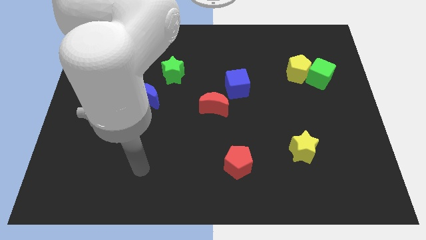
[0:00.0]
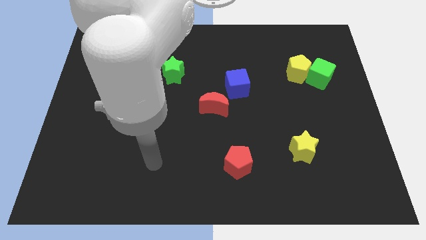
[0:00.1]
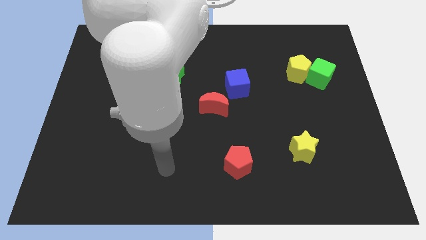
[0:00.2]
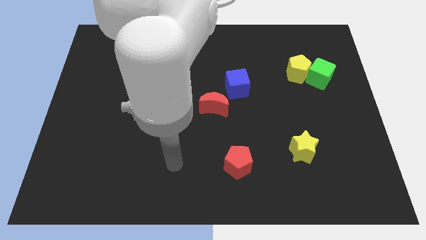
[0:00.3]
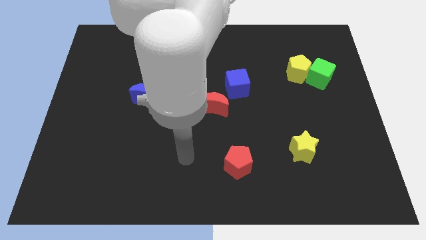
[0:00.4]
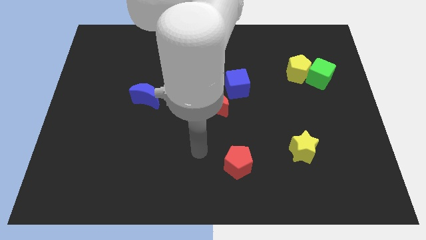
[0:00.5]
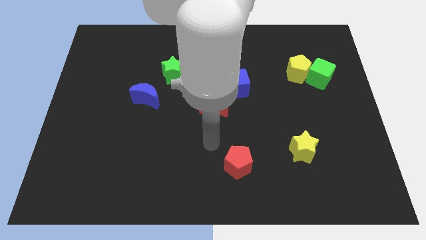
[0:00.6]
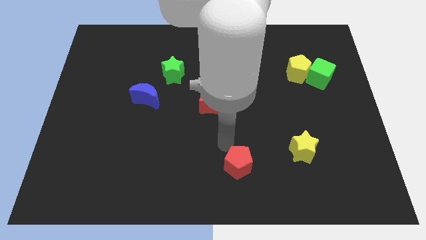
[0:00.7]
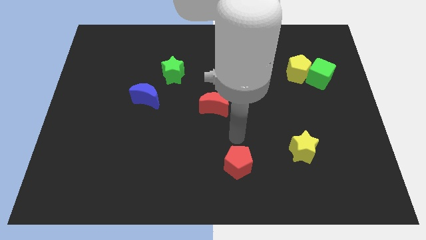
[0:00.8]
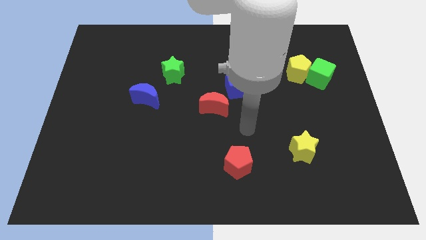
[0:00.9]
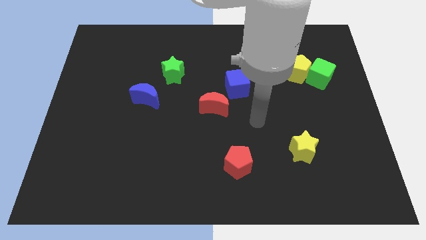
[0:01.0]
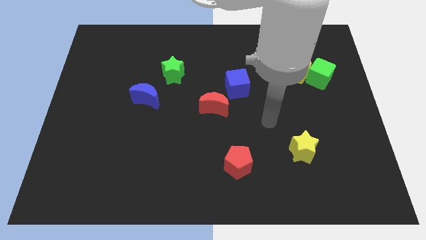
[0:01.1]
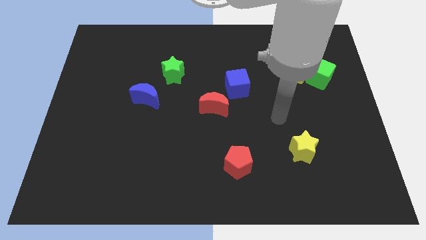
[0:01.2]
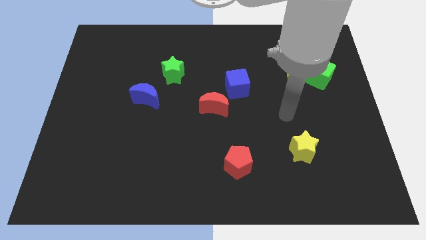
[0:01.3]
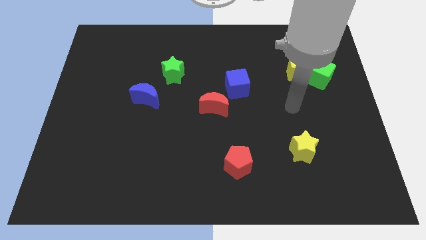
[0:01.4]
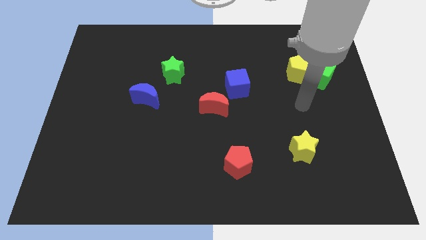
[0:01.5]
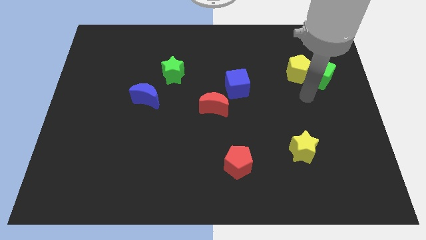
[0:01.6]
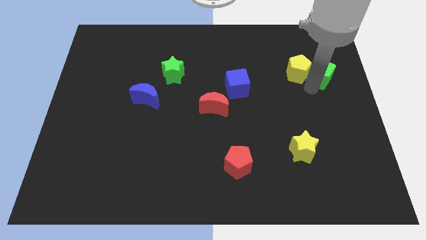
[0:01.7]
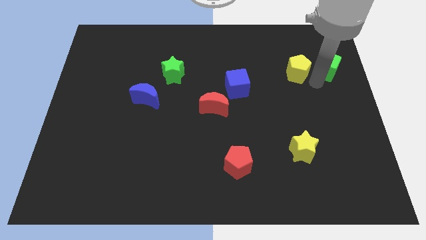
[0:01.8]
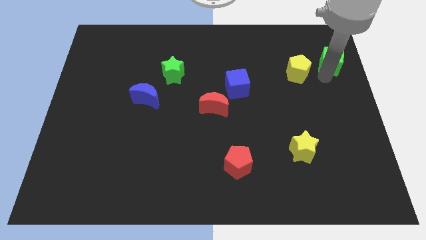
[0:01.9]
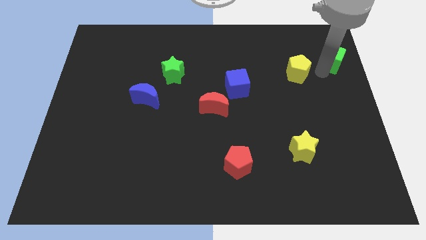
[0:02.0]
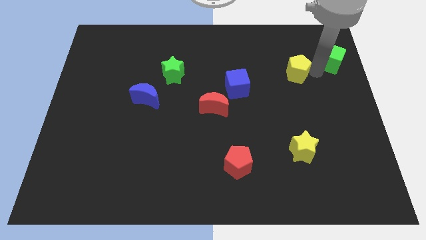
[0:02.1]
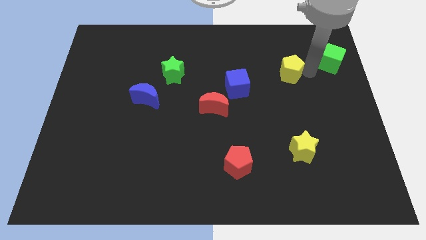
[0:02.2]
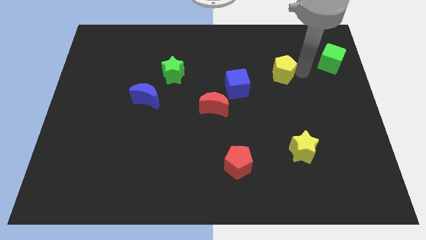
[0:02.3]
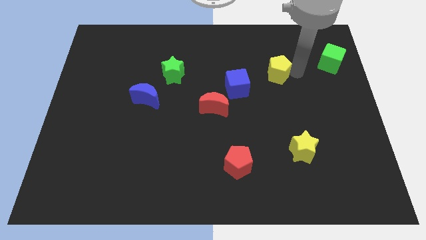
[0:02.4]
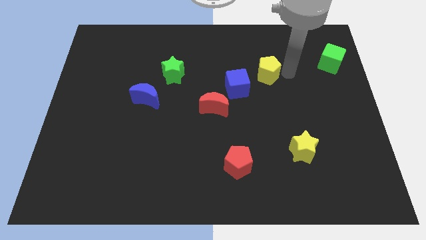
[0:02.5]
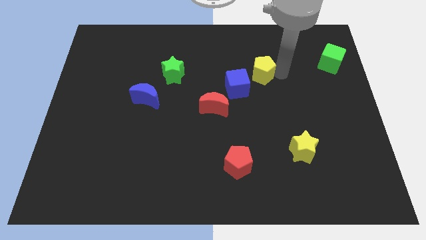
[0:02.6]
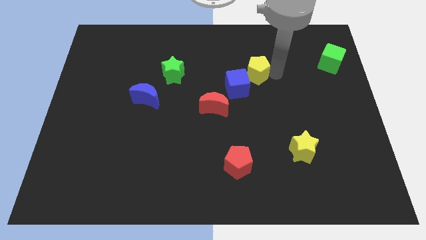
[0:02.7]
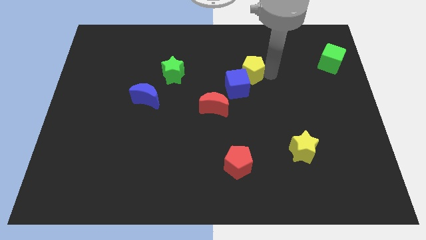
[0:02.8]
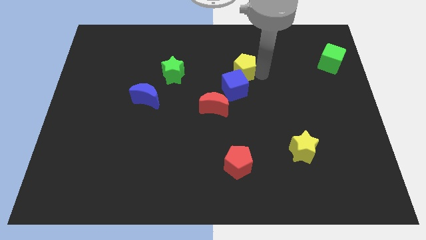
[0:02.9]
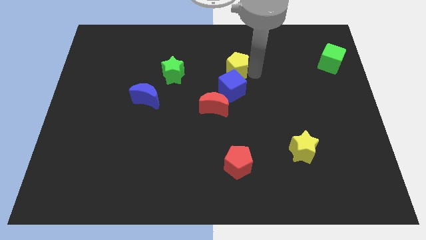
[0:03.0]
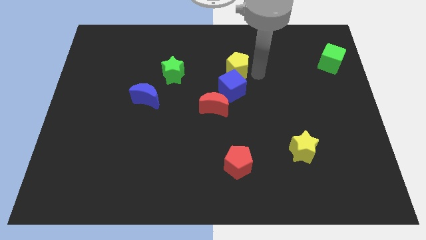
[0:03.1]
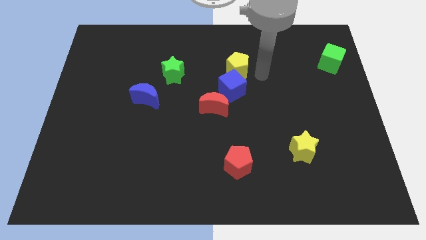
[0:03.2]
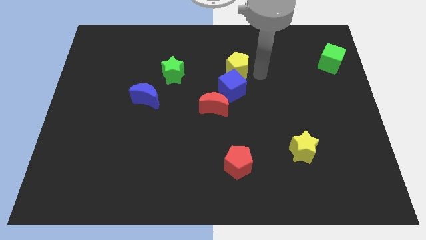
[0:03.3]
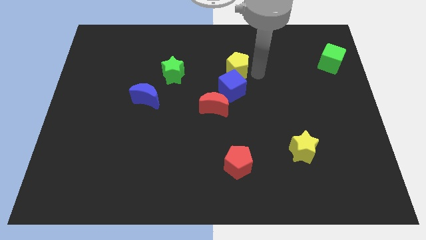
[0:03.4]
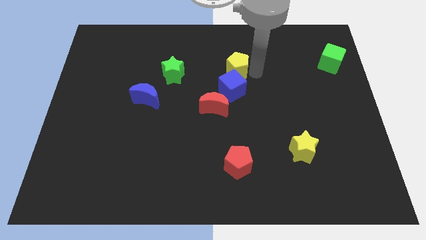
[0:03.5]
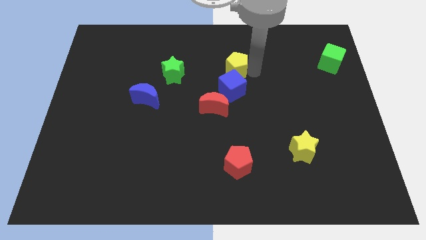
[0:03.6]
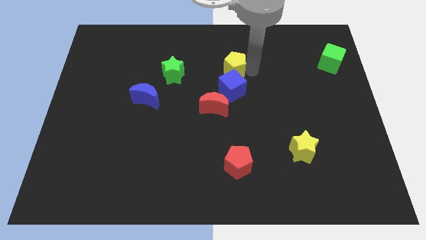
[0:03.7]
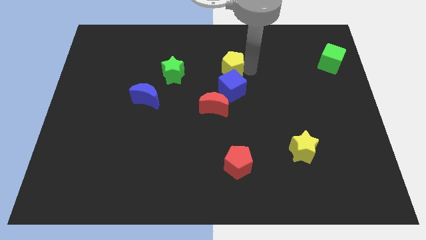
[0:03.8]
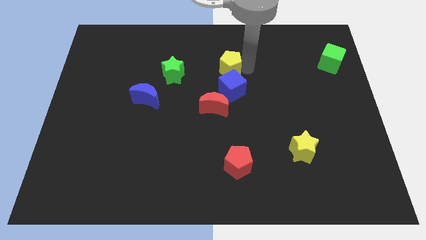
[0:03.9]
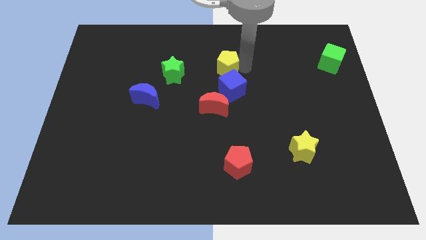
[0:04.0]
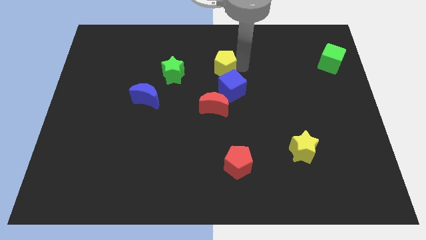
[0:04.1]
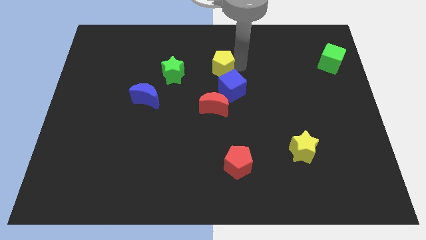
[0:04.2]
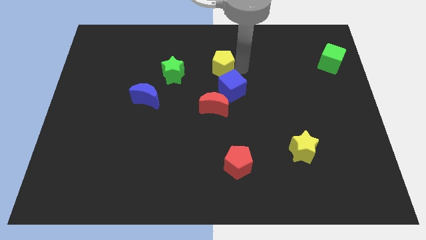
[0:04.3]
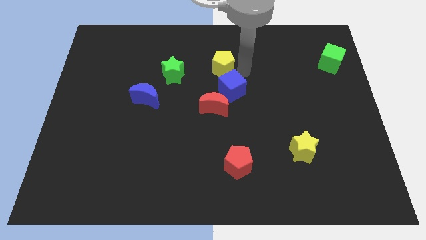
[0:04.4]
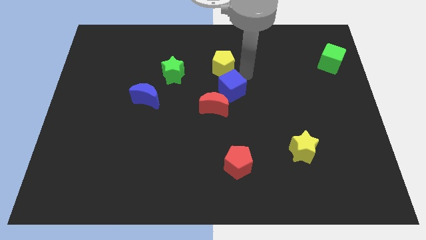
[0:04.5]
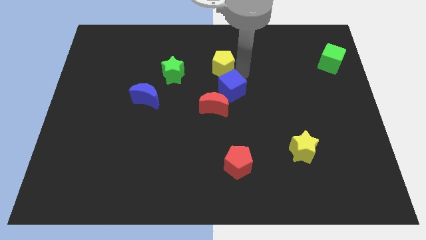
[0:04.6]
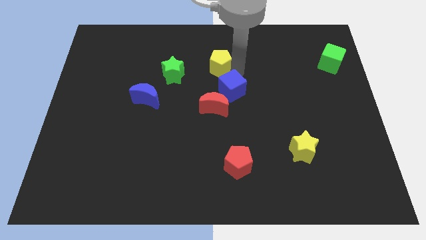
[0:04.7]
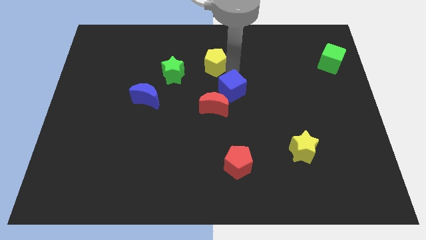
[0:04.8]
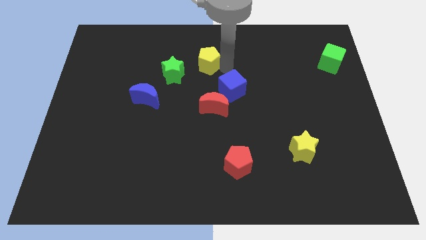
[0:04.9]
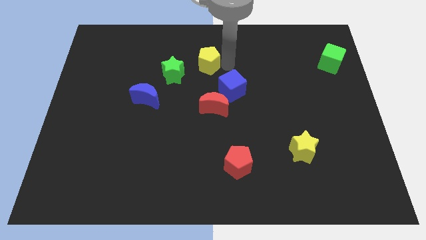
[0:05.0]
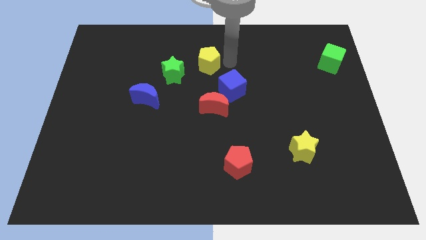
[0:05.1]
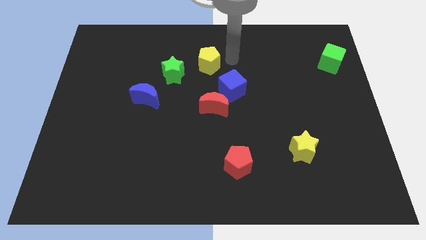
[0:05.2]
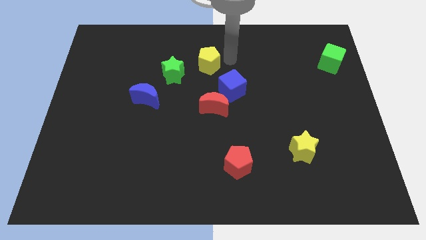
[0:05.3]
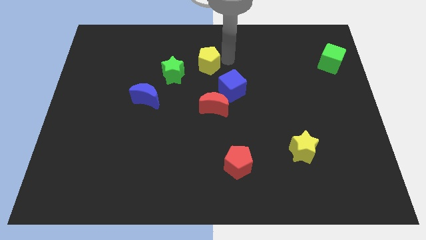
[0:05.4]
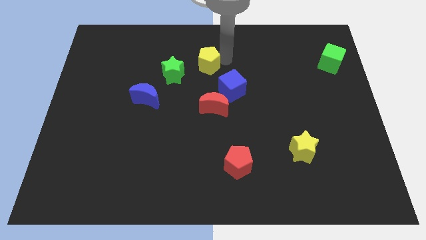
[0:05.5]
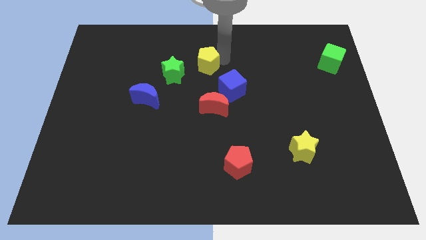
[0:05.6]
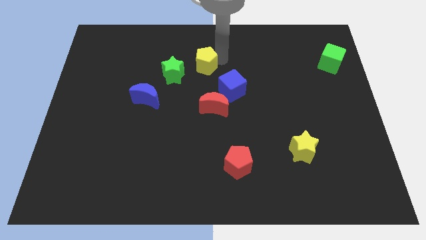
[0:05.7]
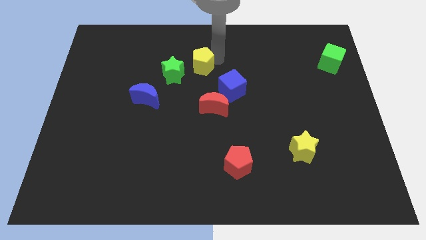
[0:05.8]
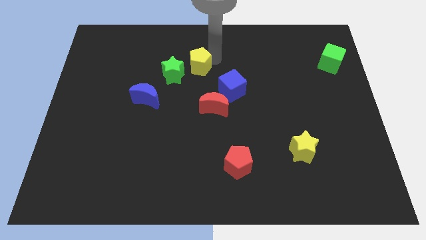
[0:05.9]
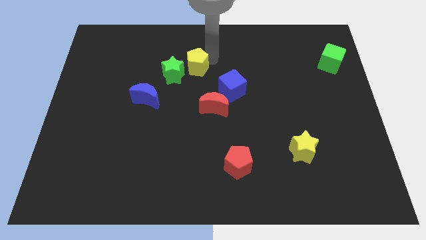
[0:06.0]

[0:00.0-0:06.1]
move the yellow pentagon to the green star

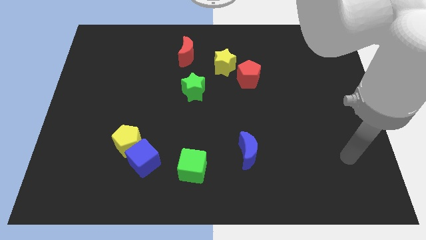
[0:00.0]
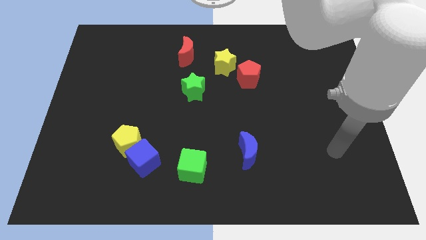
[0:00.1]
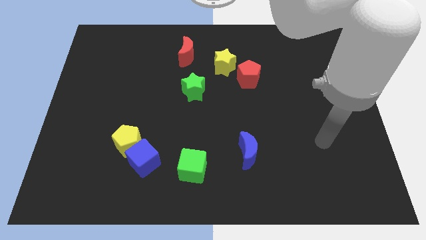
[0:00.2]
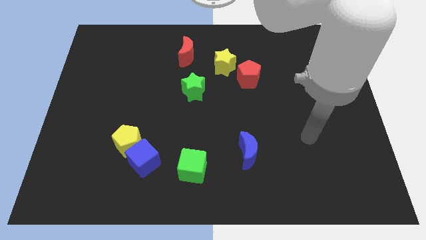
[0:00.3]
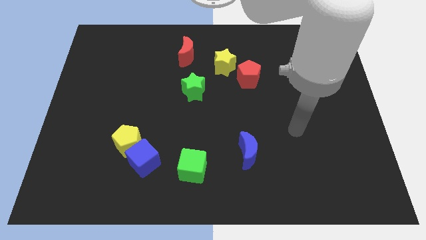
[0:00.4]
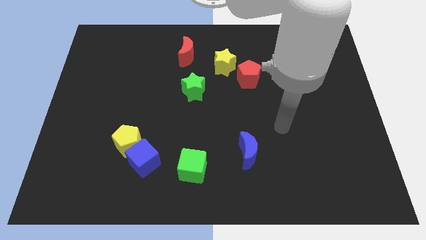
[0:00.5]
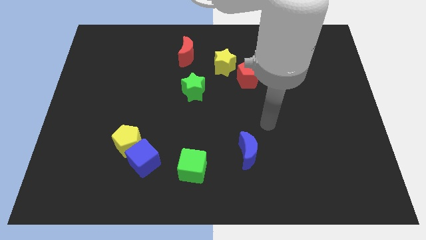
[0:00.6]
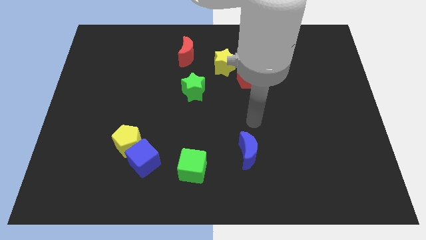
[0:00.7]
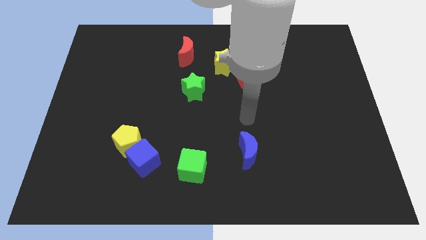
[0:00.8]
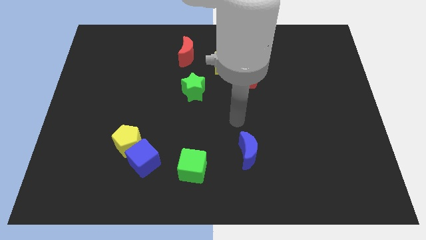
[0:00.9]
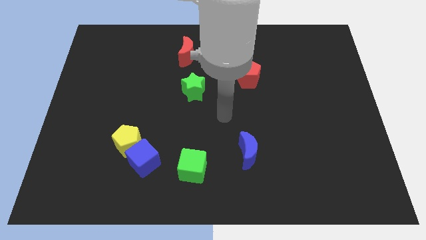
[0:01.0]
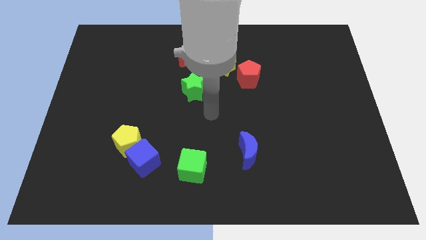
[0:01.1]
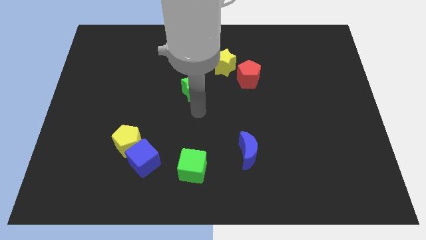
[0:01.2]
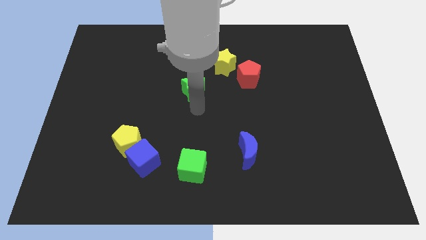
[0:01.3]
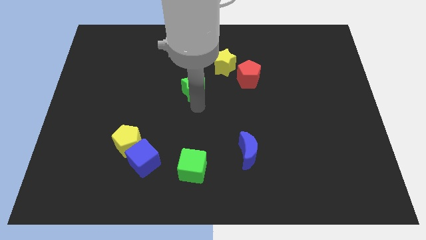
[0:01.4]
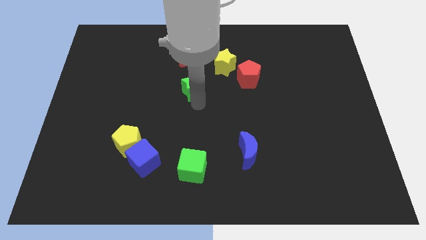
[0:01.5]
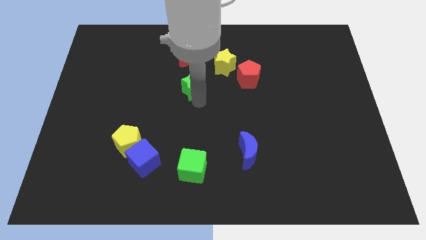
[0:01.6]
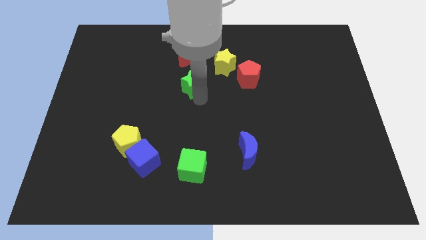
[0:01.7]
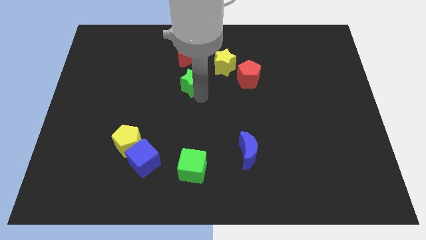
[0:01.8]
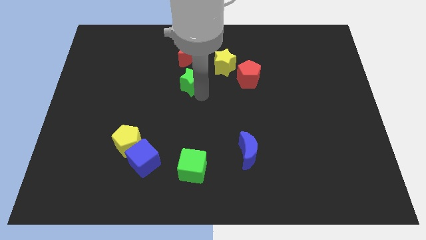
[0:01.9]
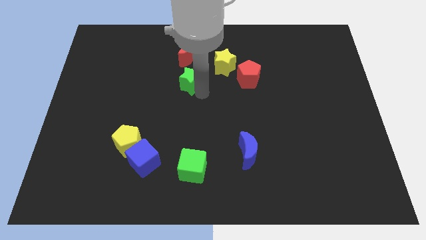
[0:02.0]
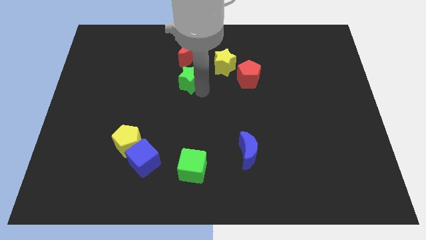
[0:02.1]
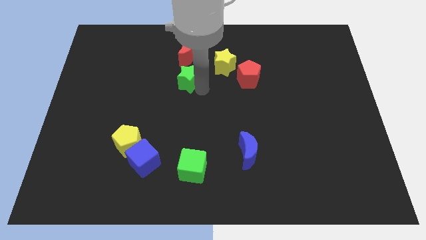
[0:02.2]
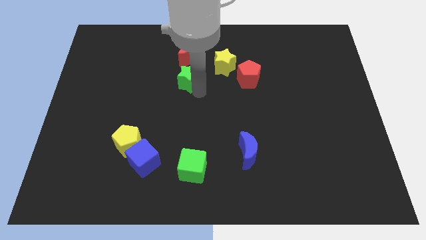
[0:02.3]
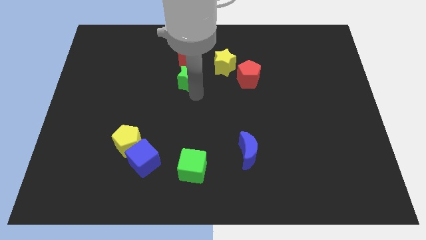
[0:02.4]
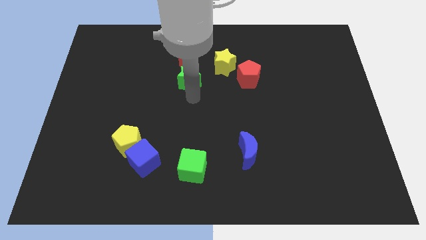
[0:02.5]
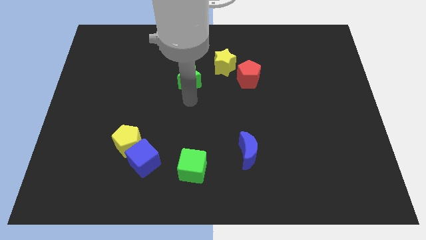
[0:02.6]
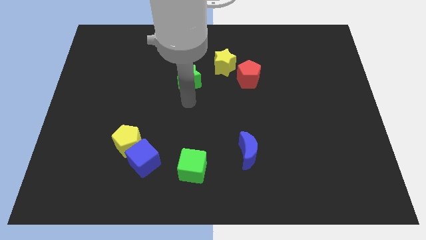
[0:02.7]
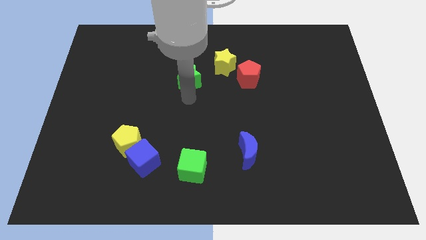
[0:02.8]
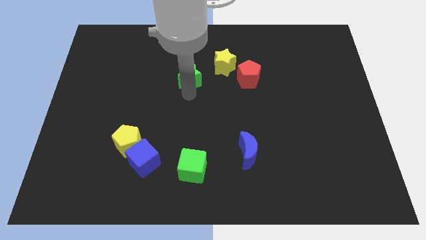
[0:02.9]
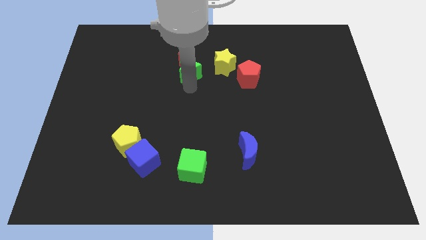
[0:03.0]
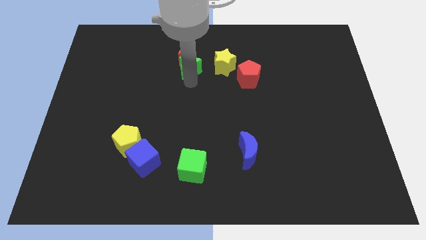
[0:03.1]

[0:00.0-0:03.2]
put the green star to the red moon
